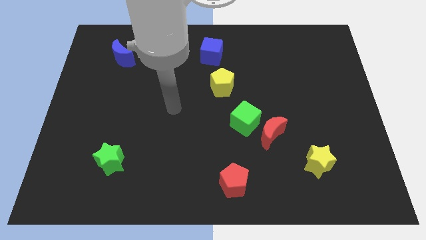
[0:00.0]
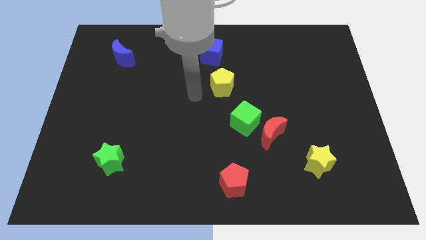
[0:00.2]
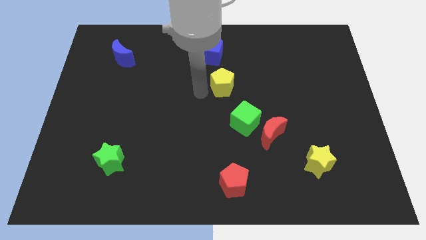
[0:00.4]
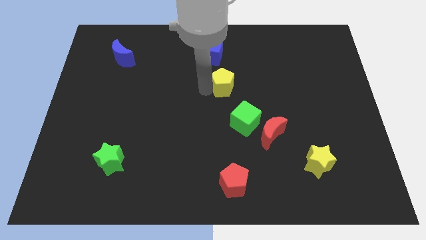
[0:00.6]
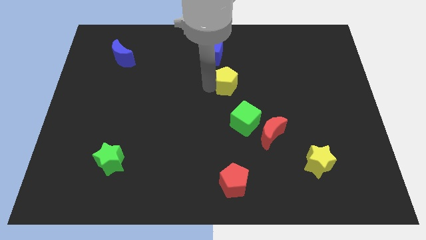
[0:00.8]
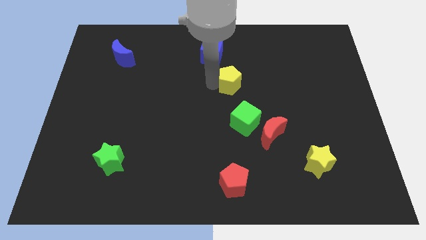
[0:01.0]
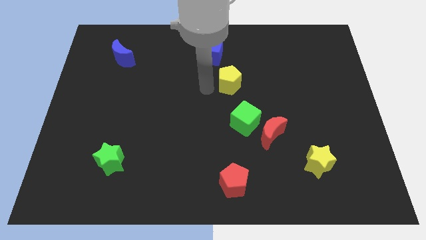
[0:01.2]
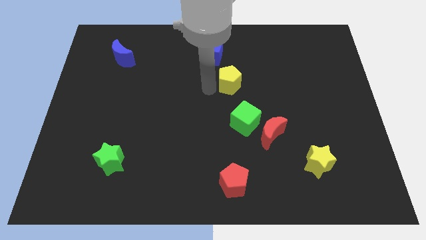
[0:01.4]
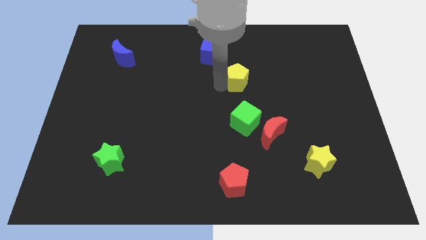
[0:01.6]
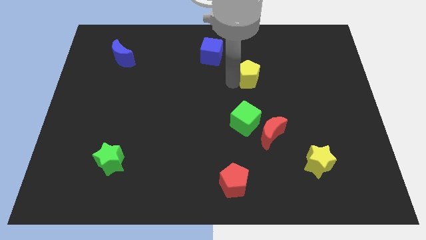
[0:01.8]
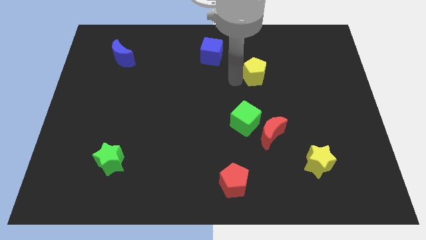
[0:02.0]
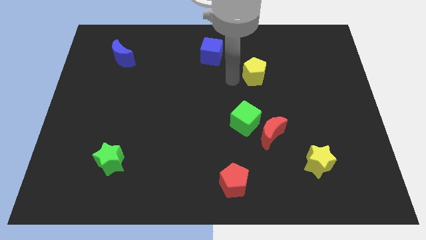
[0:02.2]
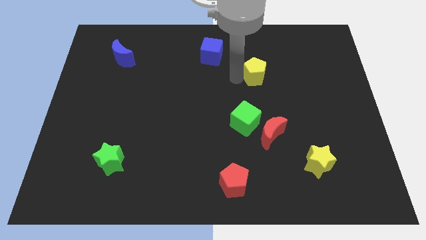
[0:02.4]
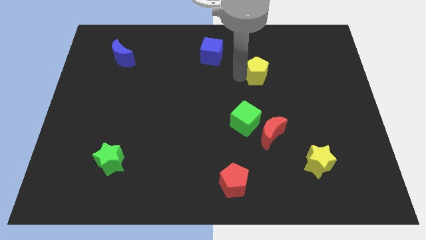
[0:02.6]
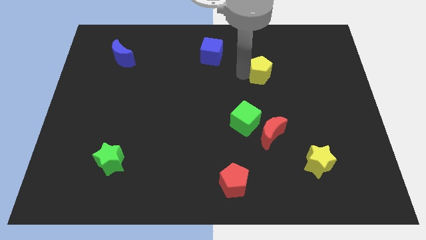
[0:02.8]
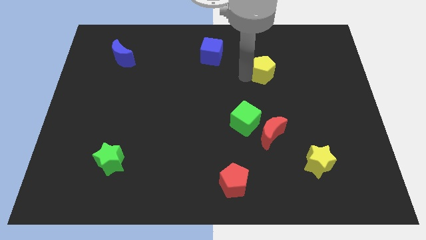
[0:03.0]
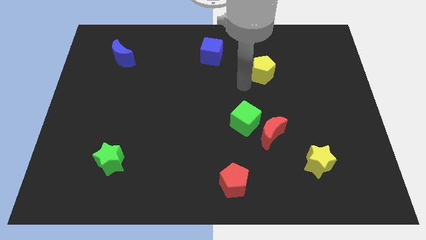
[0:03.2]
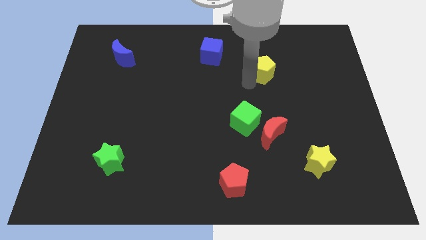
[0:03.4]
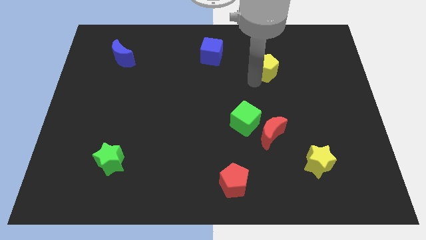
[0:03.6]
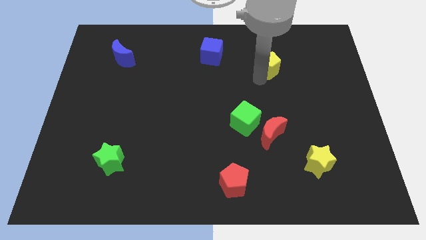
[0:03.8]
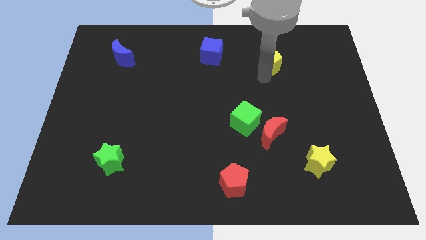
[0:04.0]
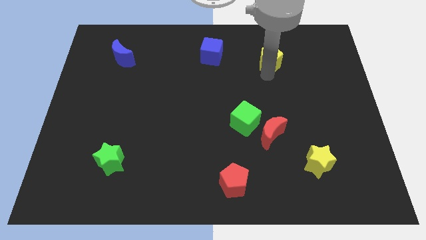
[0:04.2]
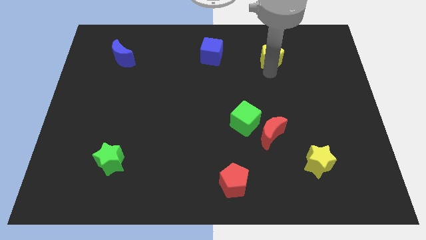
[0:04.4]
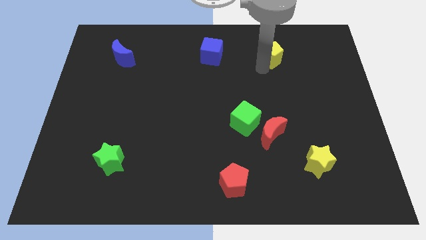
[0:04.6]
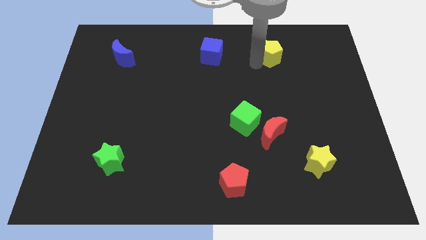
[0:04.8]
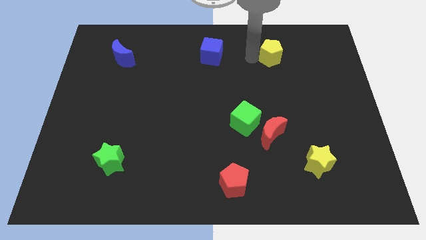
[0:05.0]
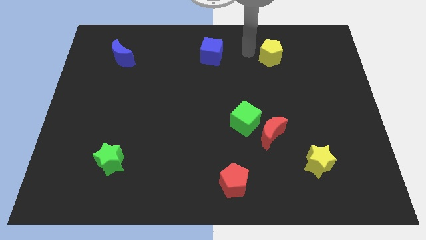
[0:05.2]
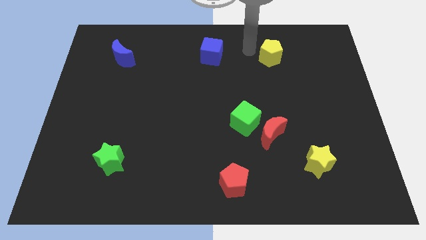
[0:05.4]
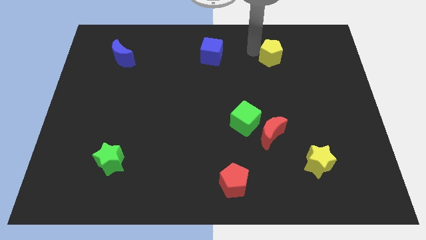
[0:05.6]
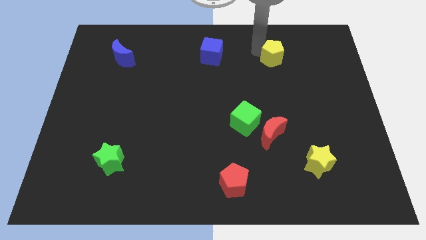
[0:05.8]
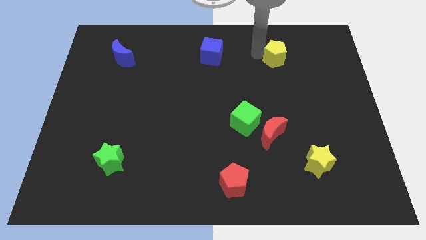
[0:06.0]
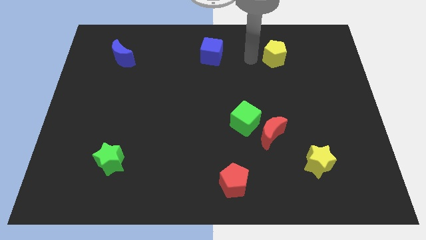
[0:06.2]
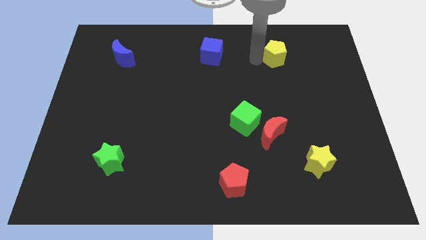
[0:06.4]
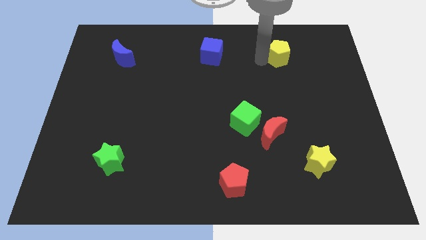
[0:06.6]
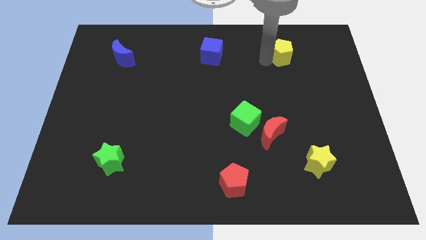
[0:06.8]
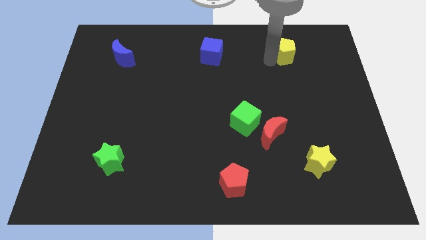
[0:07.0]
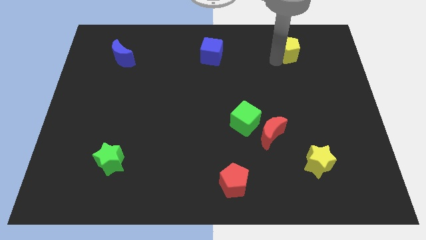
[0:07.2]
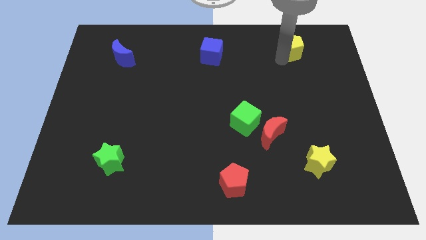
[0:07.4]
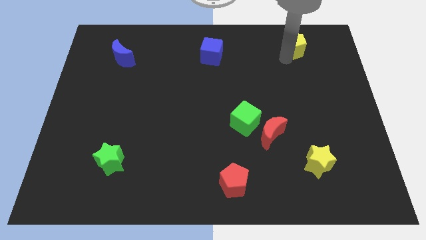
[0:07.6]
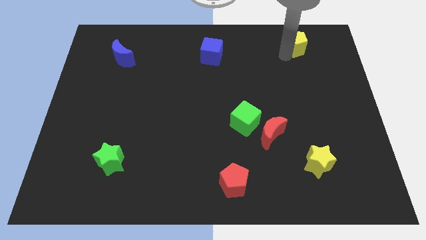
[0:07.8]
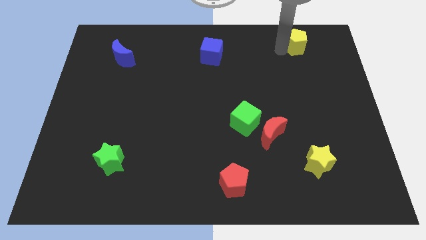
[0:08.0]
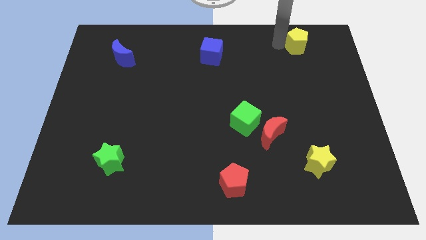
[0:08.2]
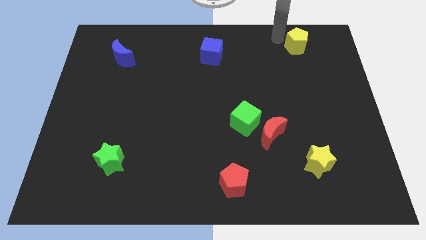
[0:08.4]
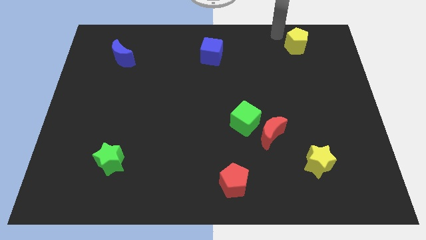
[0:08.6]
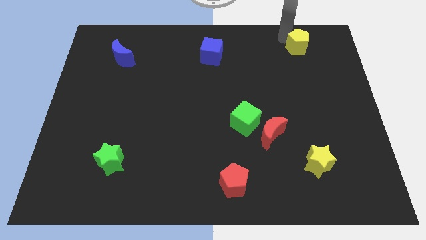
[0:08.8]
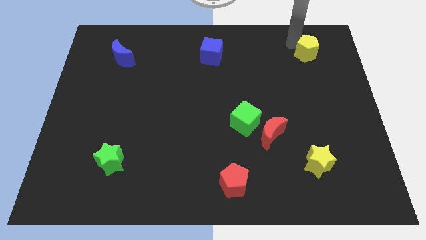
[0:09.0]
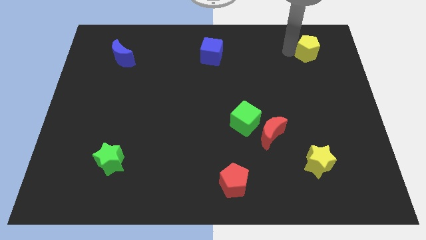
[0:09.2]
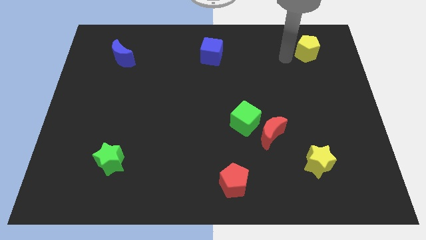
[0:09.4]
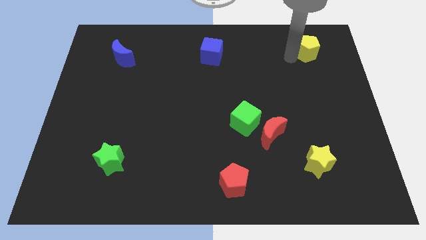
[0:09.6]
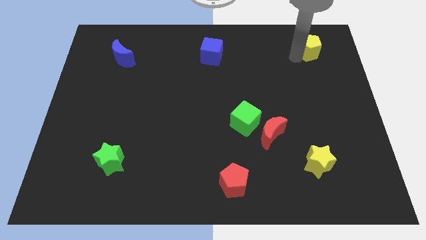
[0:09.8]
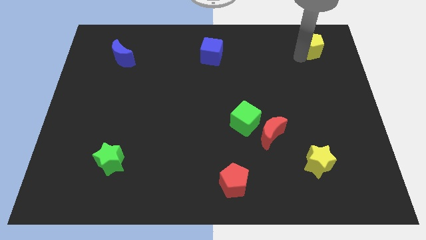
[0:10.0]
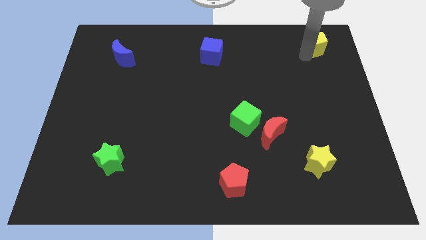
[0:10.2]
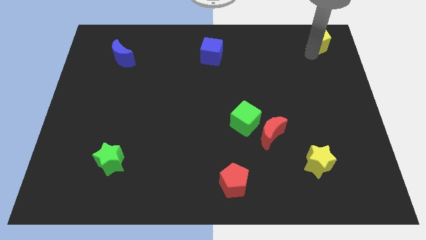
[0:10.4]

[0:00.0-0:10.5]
put the yellow pentagon to the top right

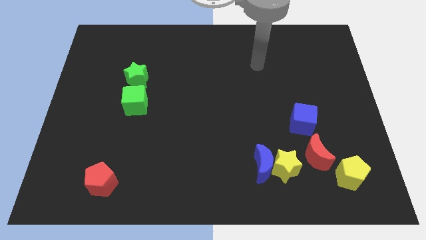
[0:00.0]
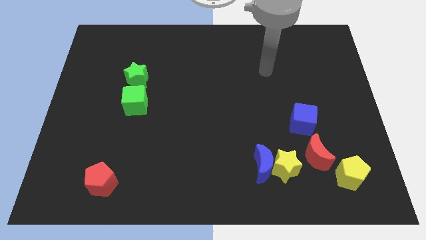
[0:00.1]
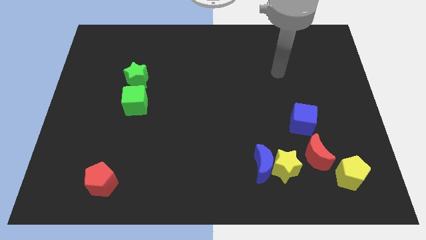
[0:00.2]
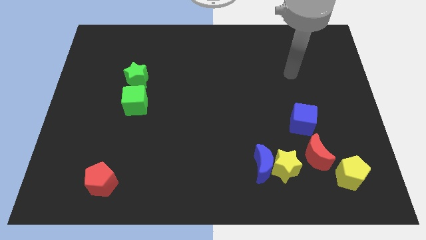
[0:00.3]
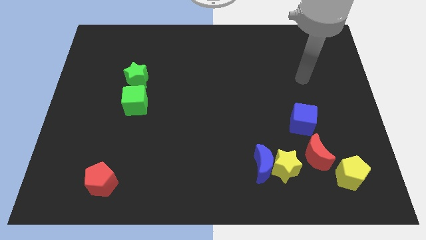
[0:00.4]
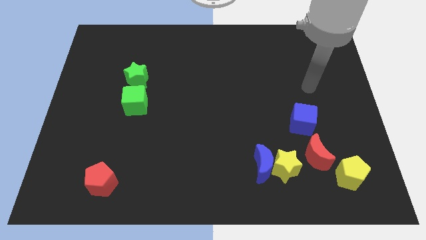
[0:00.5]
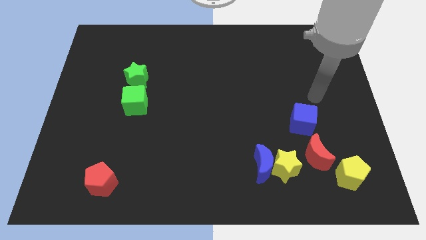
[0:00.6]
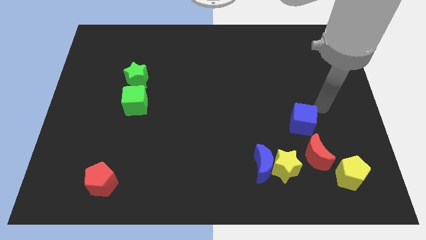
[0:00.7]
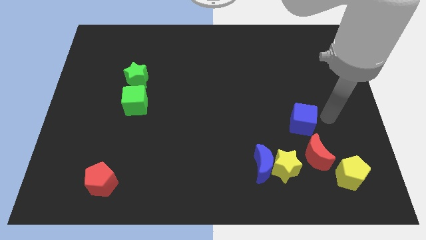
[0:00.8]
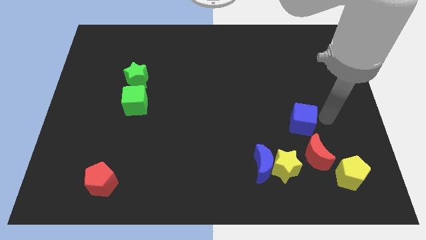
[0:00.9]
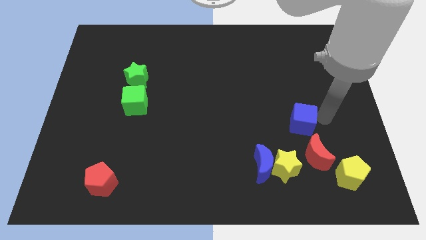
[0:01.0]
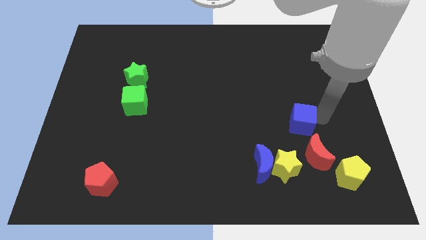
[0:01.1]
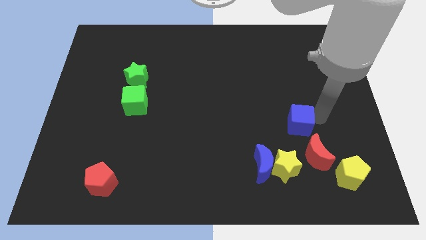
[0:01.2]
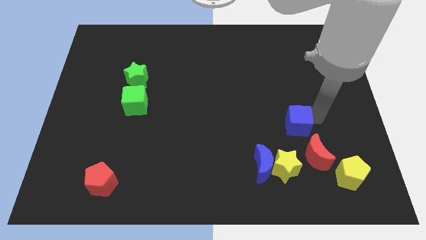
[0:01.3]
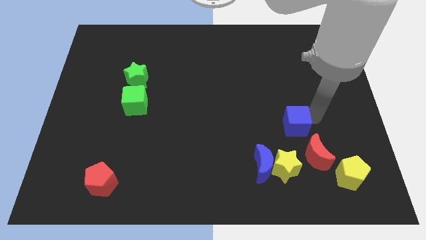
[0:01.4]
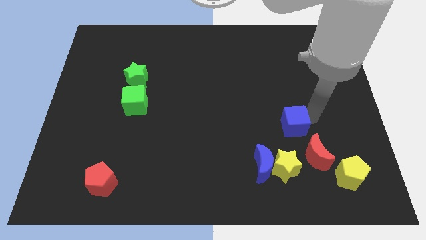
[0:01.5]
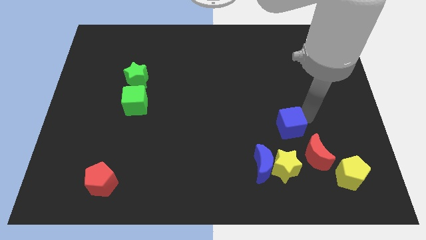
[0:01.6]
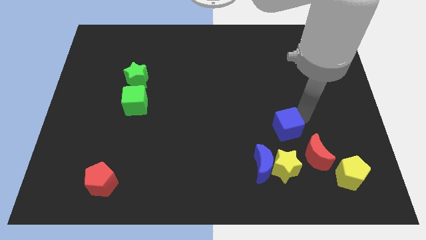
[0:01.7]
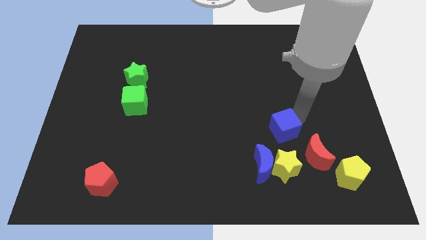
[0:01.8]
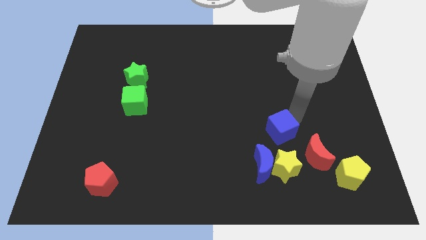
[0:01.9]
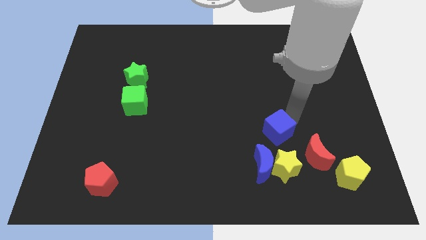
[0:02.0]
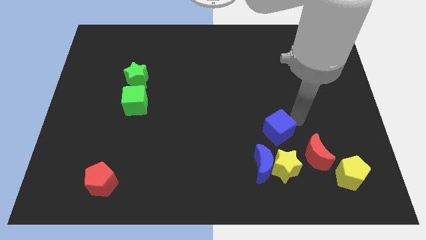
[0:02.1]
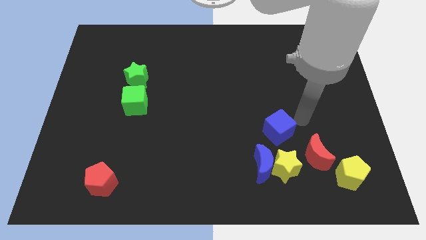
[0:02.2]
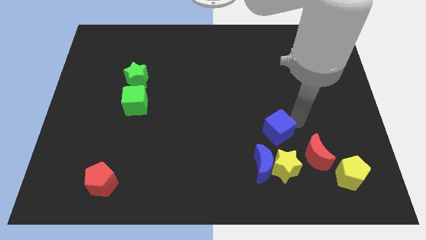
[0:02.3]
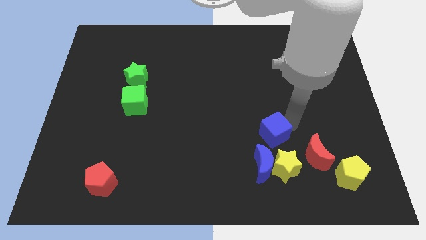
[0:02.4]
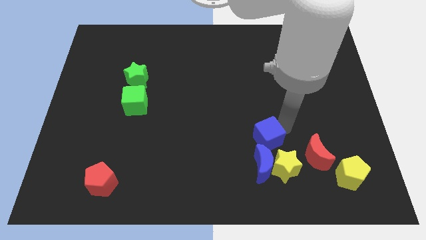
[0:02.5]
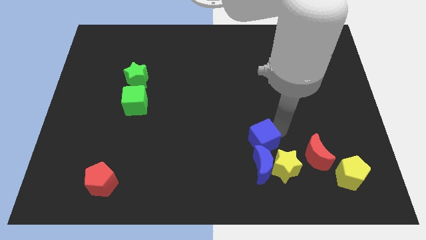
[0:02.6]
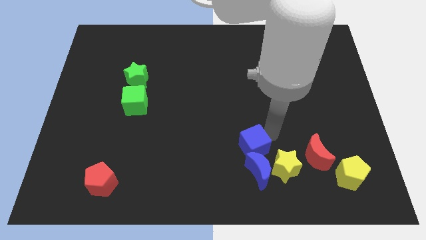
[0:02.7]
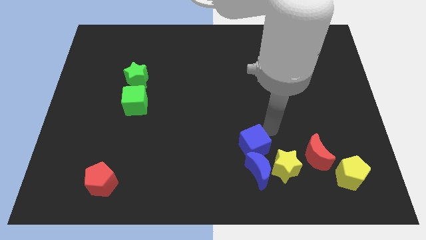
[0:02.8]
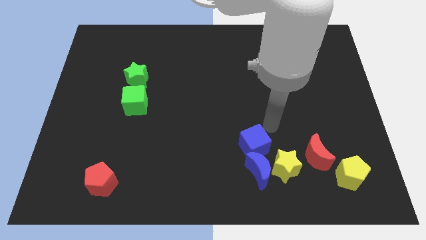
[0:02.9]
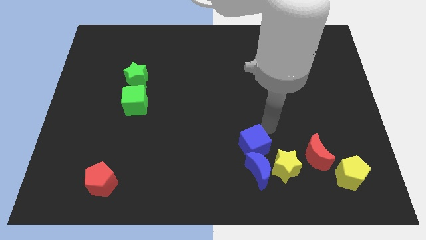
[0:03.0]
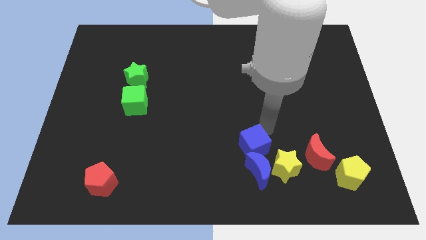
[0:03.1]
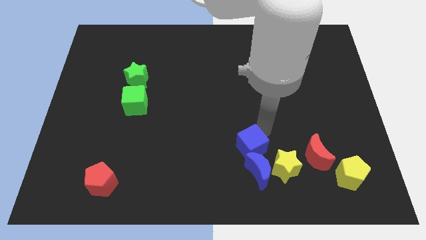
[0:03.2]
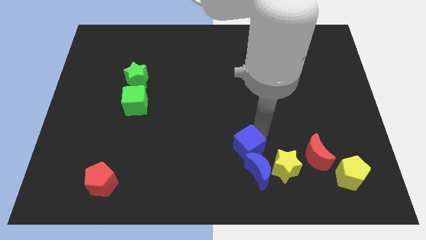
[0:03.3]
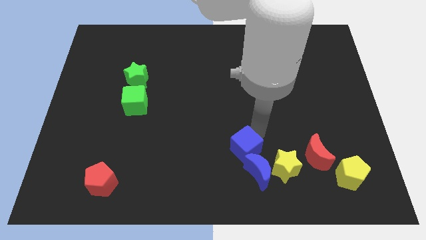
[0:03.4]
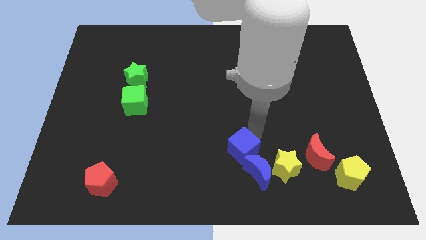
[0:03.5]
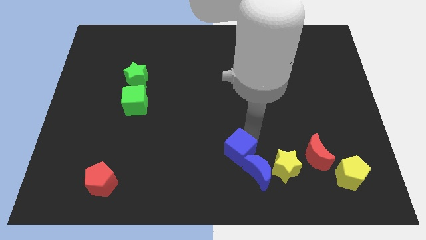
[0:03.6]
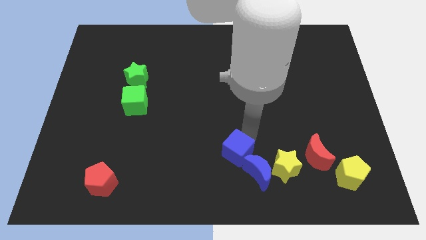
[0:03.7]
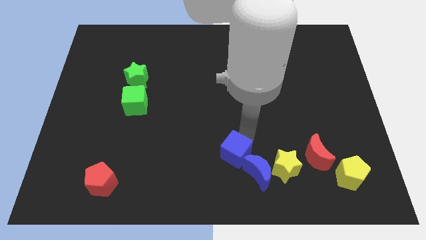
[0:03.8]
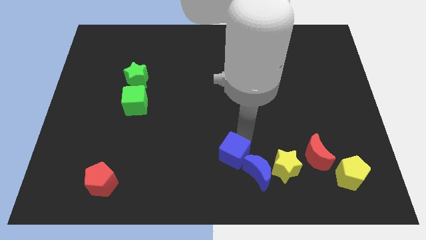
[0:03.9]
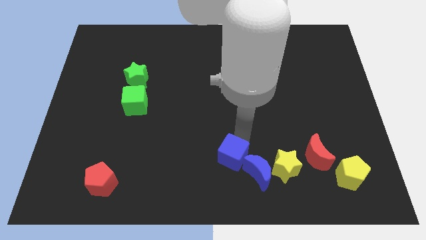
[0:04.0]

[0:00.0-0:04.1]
put the blue cube to the bottom
